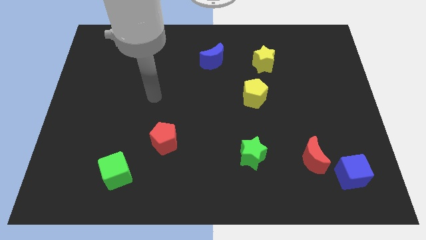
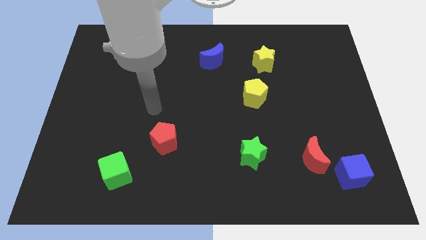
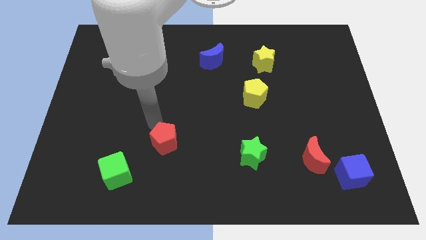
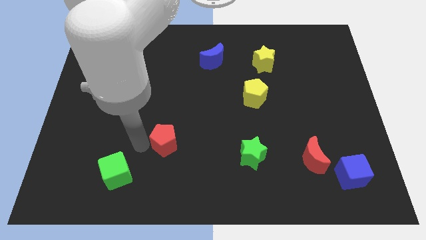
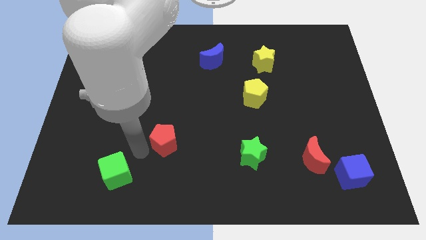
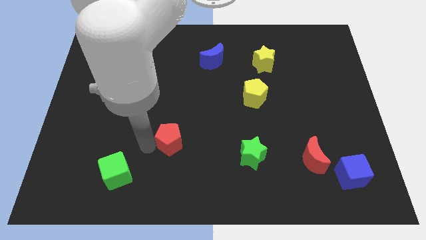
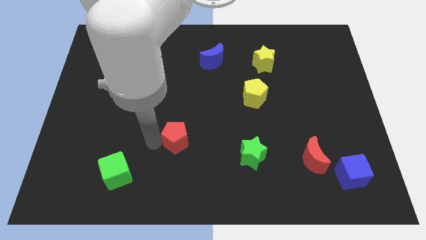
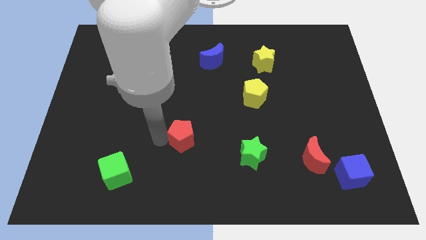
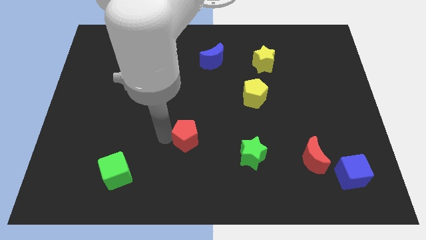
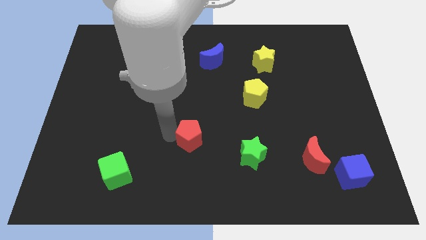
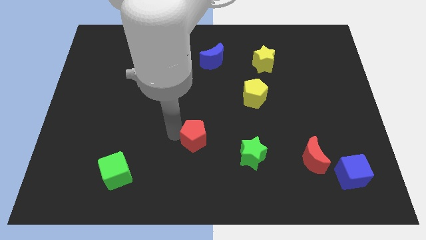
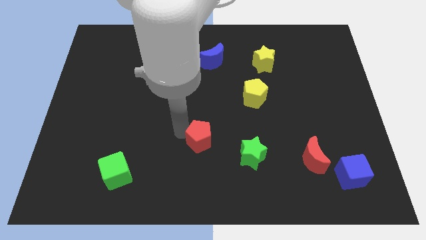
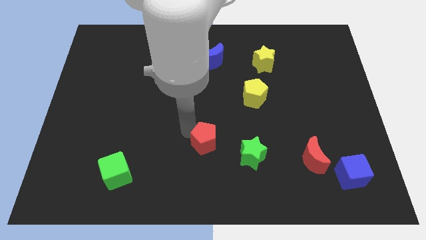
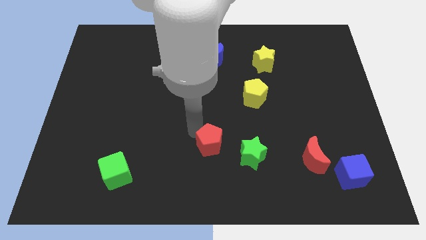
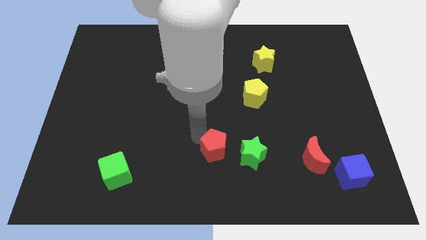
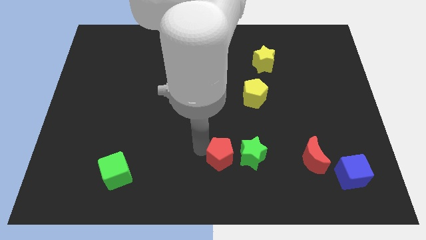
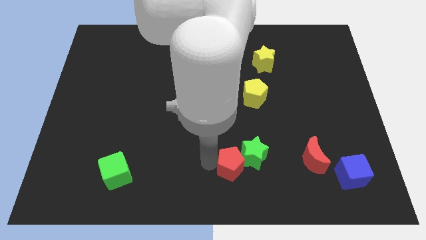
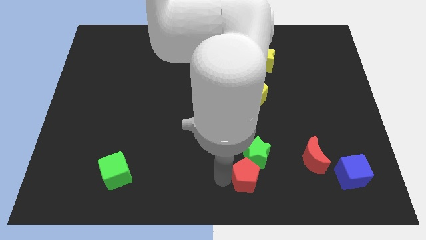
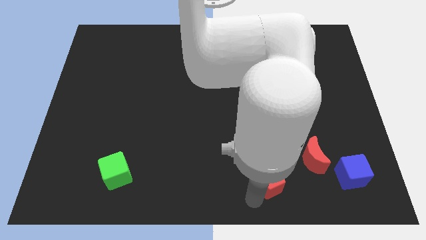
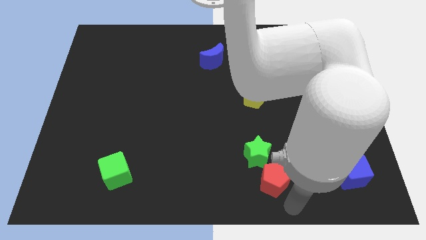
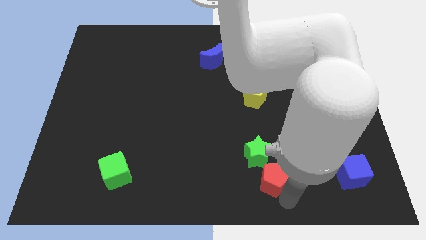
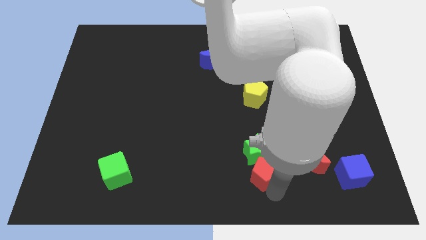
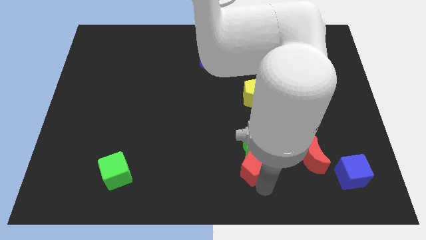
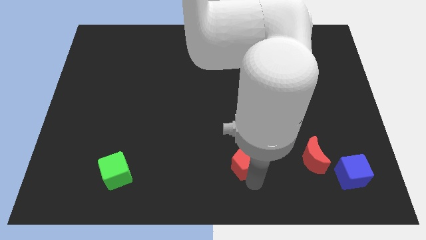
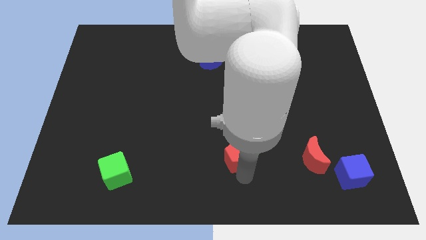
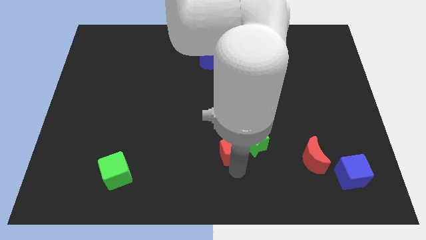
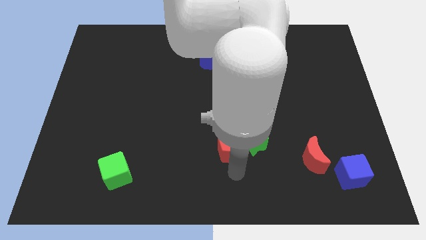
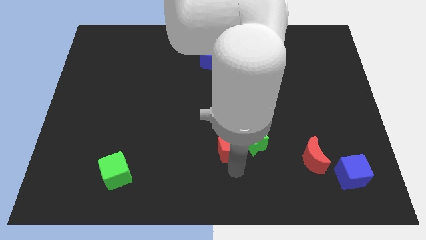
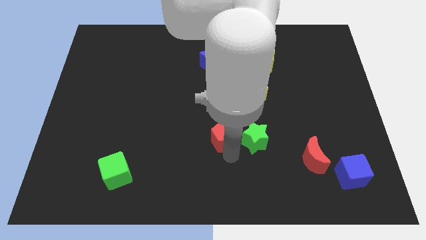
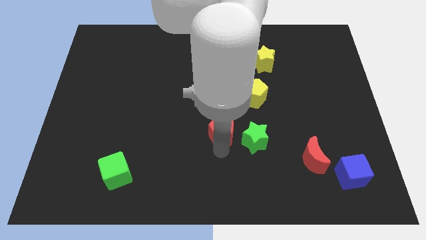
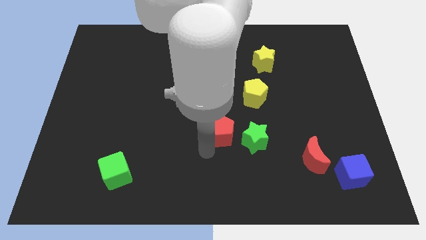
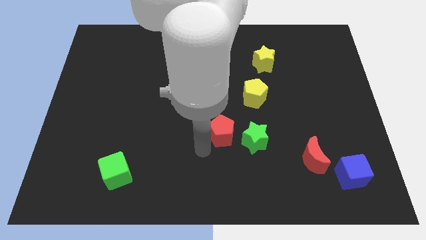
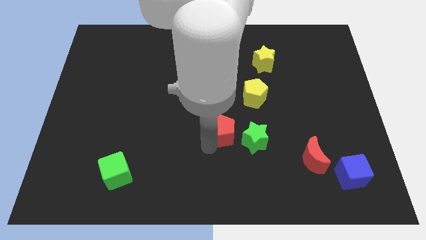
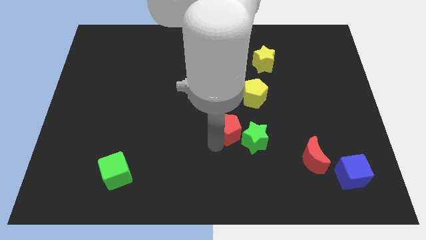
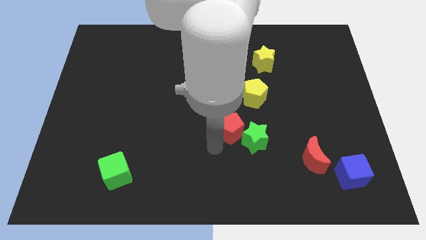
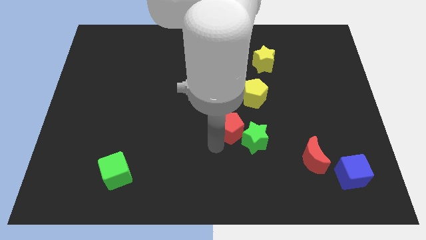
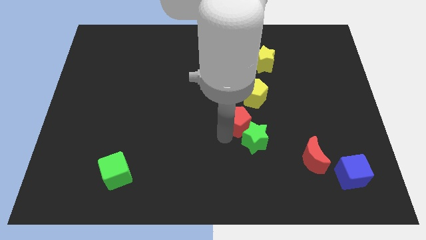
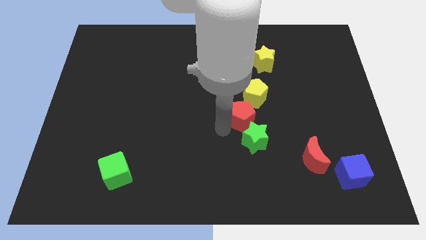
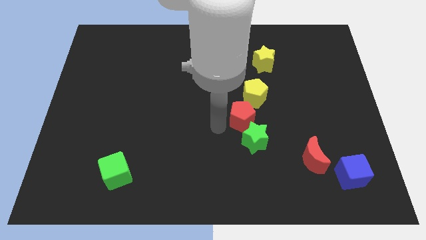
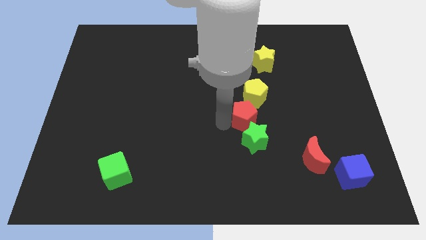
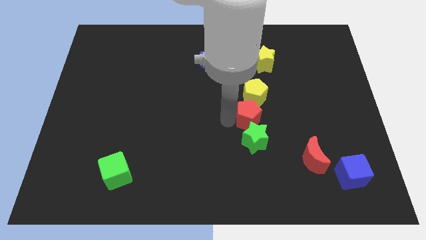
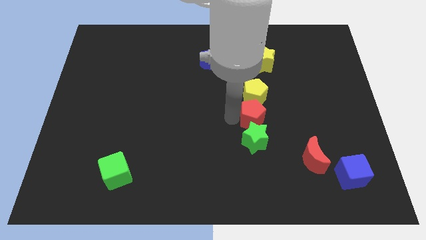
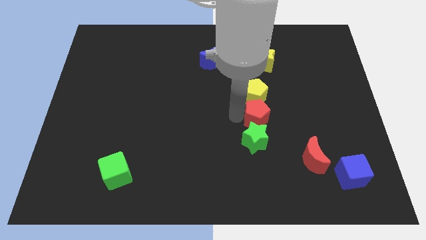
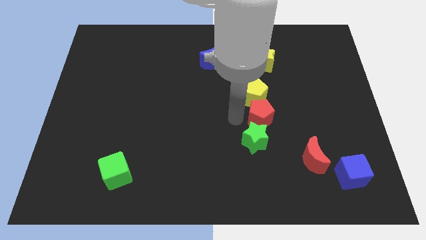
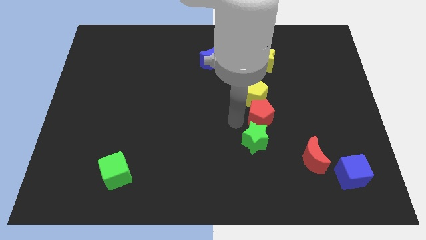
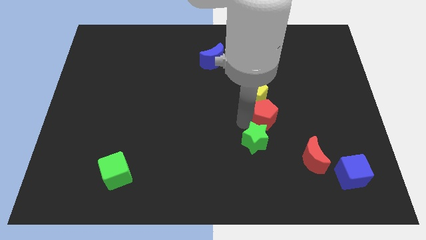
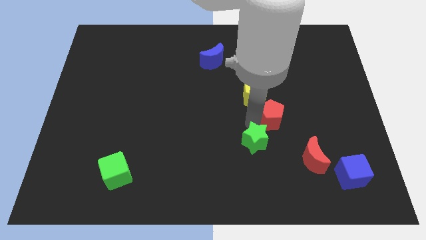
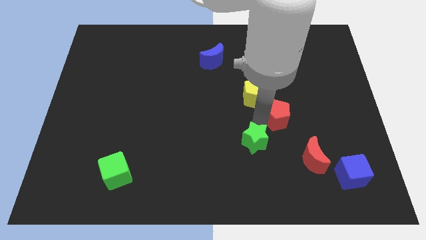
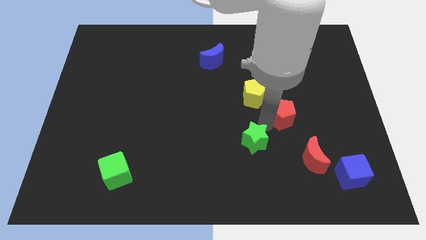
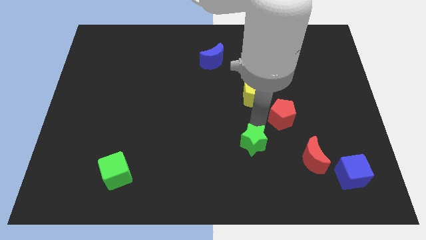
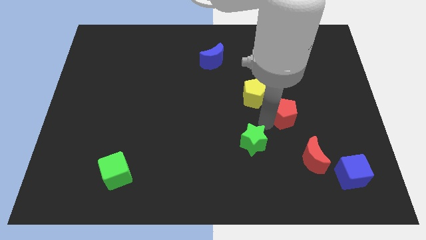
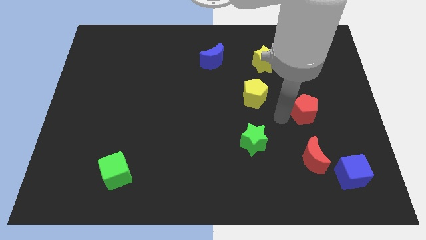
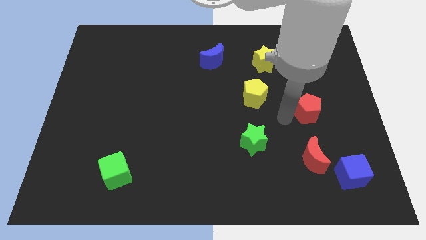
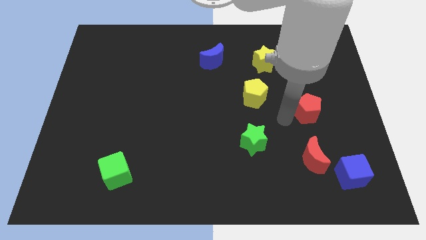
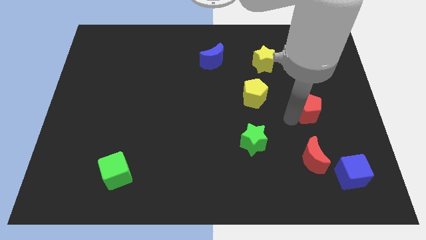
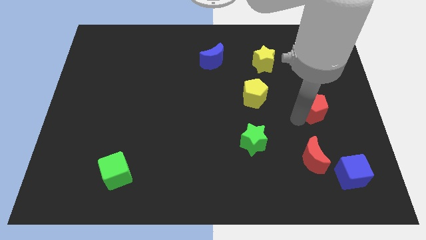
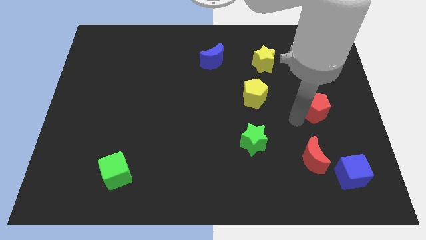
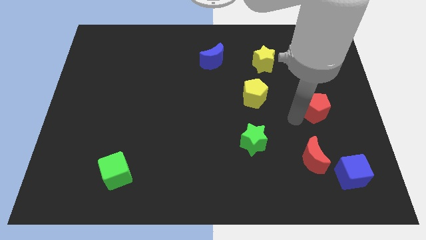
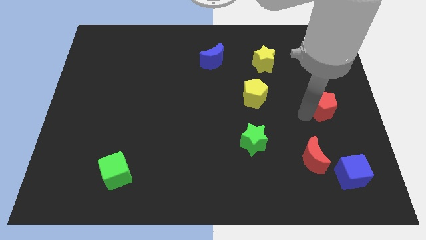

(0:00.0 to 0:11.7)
push the red pentagon to the right side
